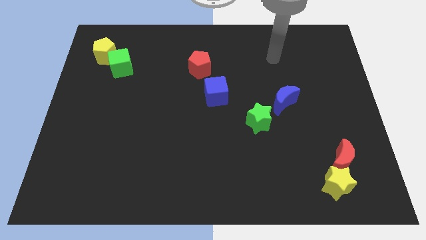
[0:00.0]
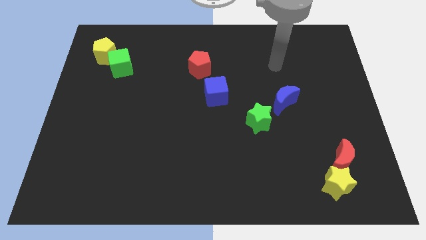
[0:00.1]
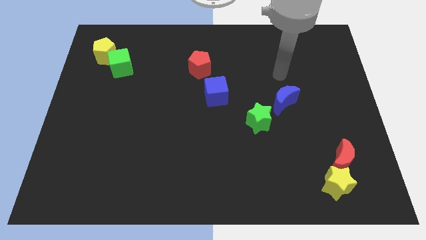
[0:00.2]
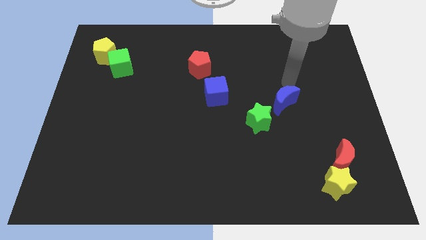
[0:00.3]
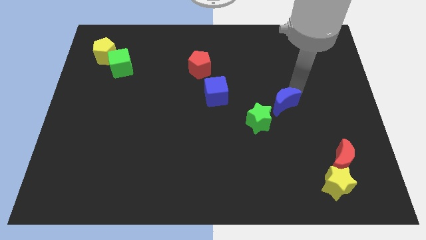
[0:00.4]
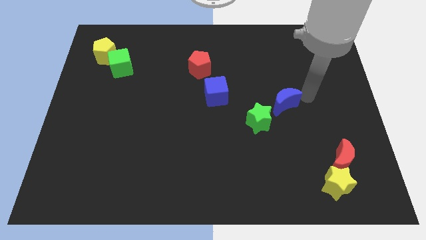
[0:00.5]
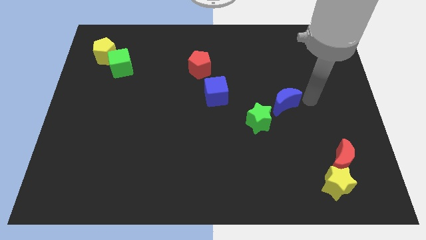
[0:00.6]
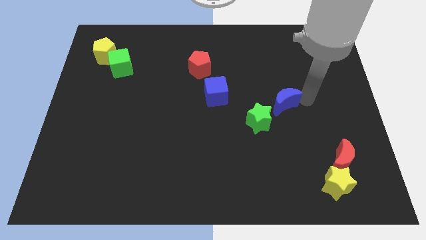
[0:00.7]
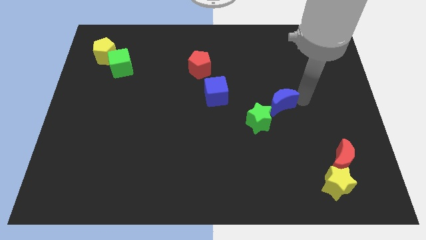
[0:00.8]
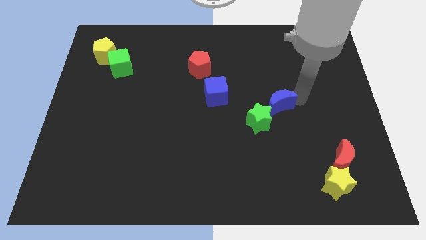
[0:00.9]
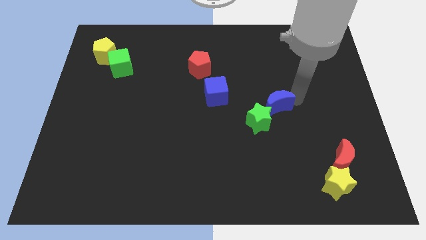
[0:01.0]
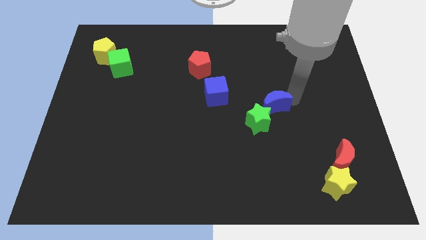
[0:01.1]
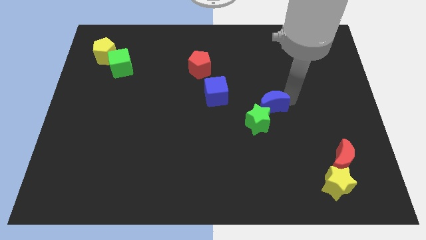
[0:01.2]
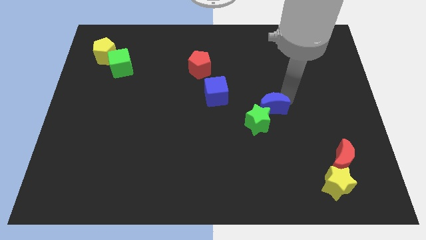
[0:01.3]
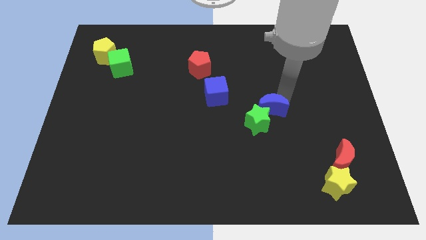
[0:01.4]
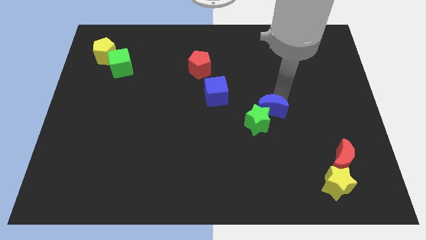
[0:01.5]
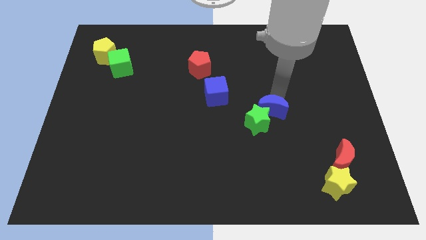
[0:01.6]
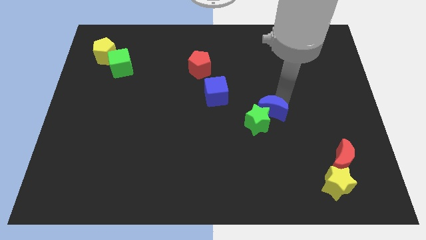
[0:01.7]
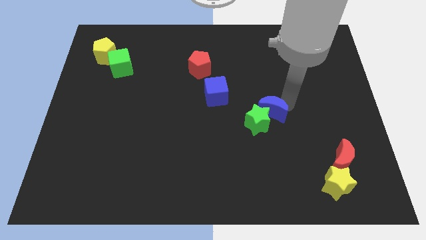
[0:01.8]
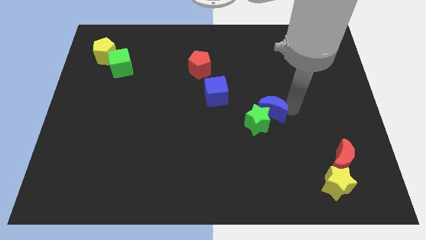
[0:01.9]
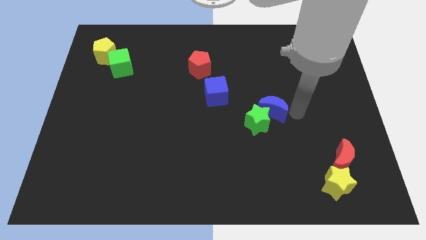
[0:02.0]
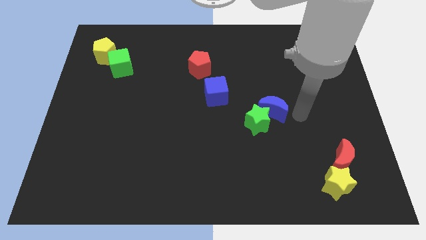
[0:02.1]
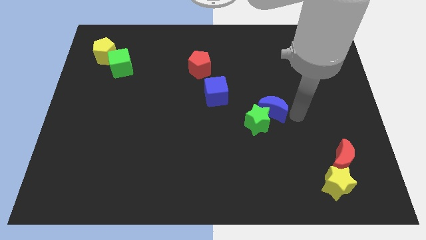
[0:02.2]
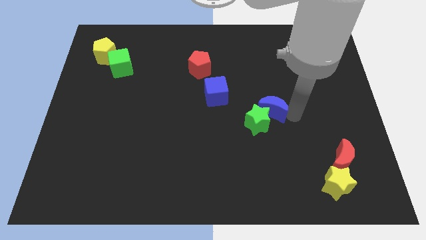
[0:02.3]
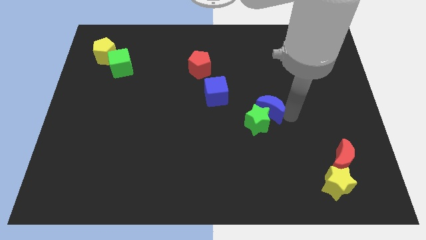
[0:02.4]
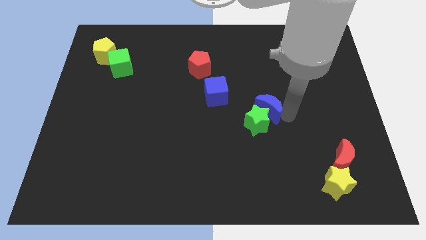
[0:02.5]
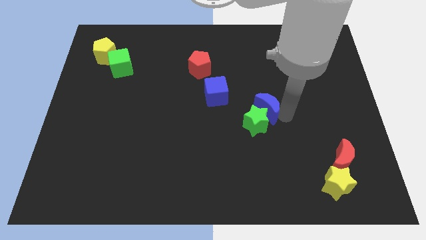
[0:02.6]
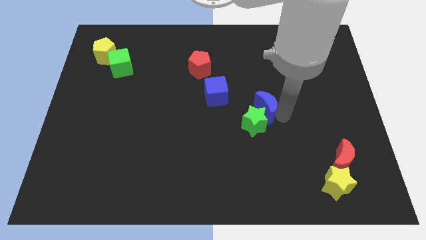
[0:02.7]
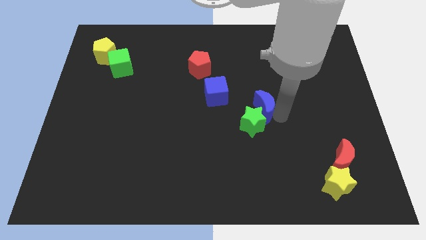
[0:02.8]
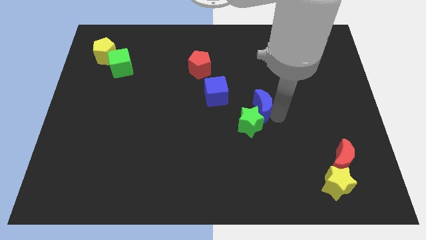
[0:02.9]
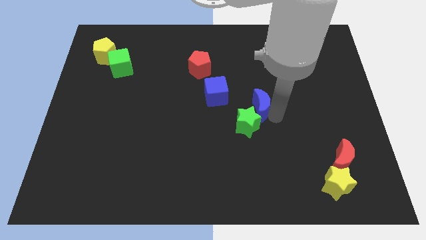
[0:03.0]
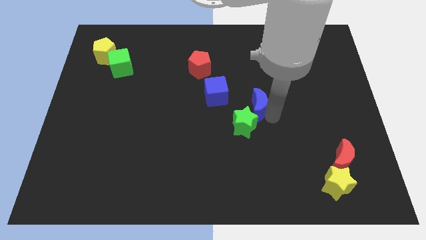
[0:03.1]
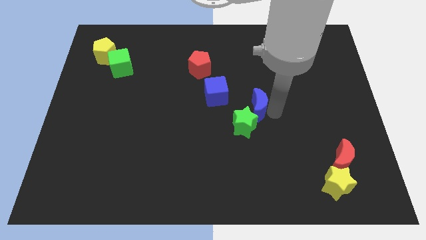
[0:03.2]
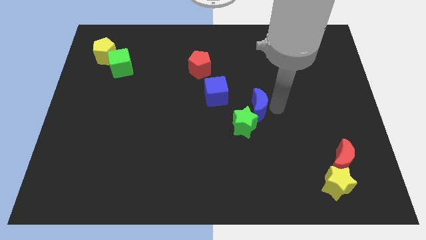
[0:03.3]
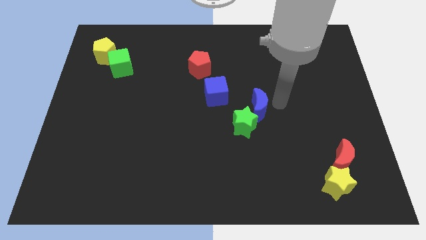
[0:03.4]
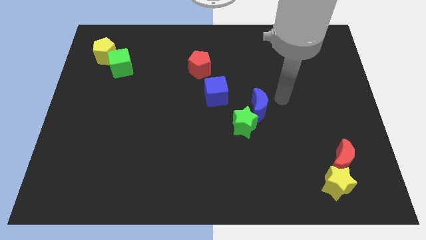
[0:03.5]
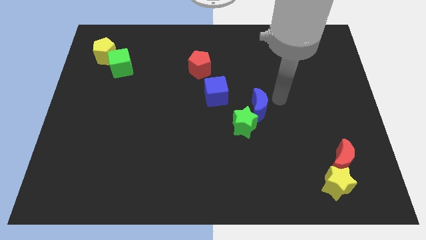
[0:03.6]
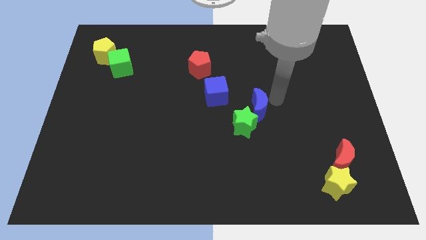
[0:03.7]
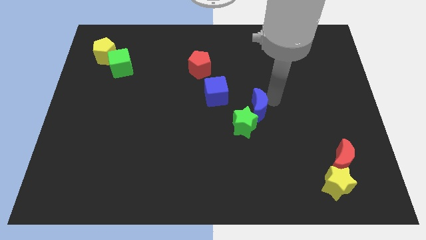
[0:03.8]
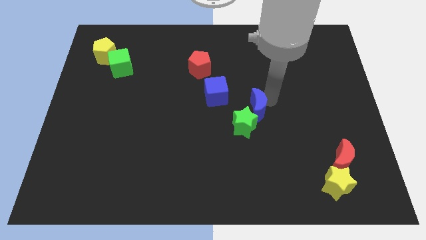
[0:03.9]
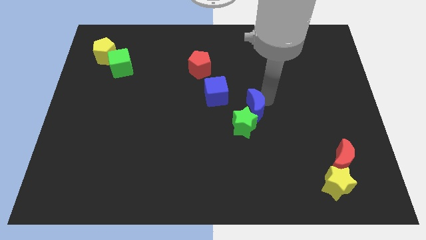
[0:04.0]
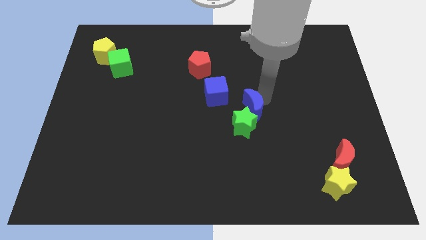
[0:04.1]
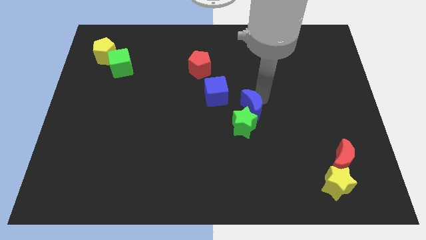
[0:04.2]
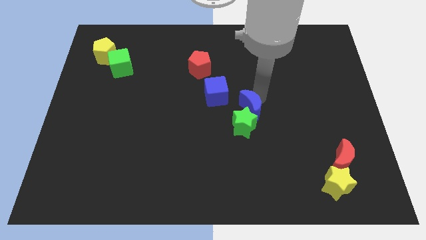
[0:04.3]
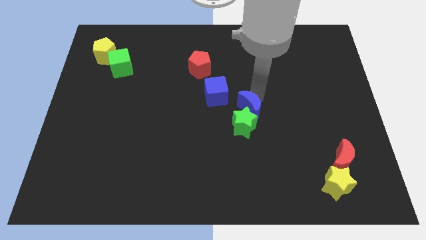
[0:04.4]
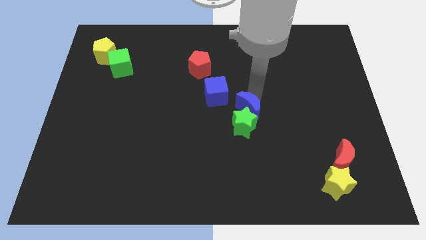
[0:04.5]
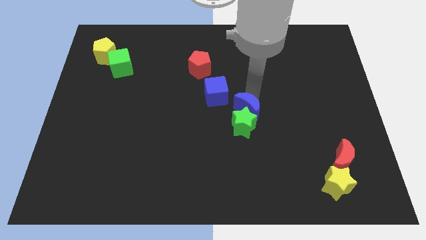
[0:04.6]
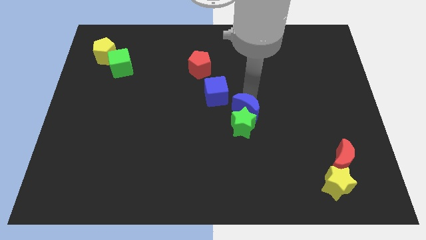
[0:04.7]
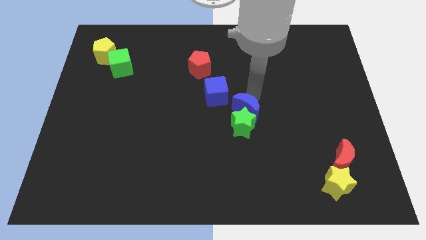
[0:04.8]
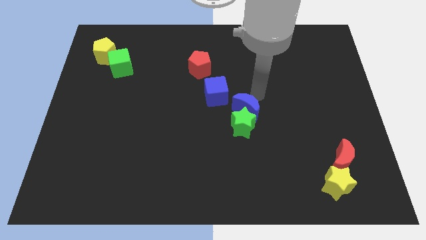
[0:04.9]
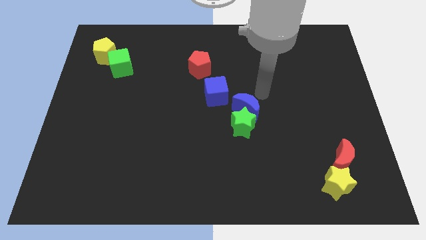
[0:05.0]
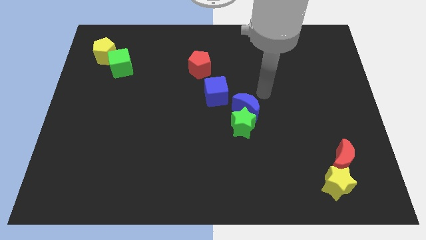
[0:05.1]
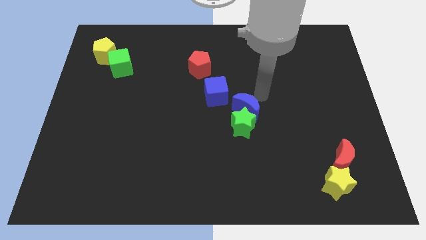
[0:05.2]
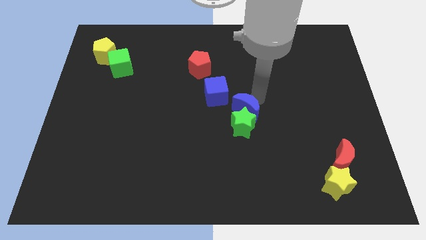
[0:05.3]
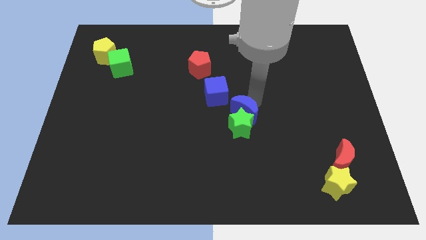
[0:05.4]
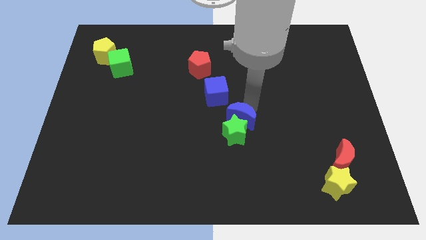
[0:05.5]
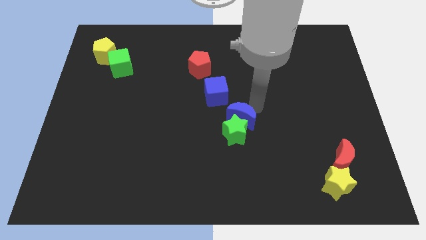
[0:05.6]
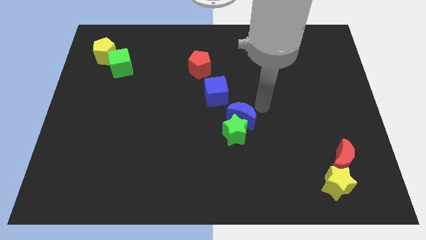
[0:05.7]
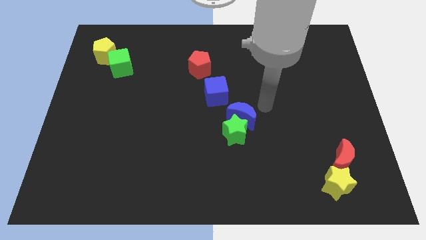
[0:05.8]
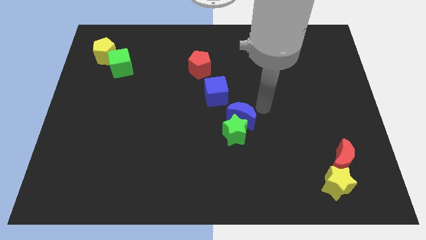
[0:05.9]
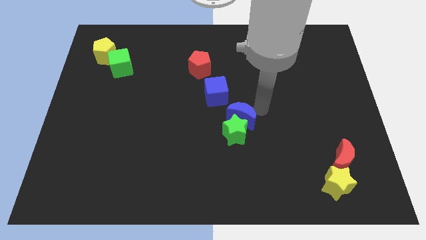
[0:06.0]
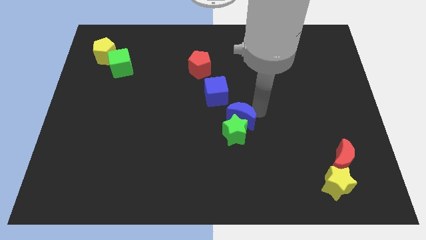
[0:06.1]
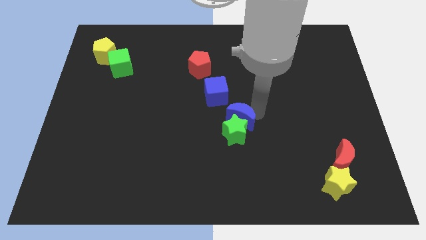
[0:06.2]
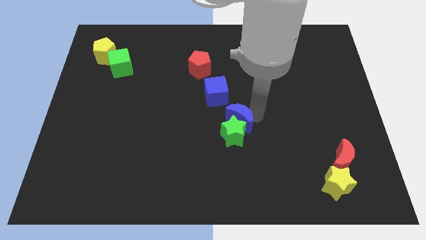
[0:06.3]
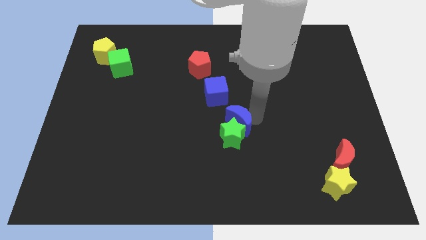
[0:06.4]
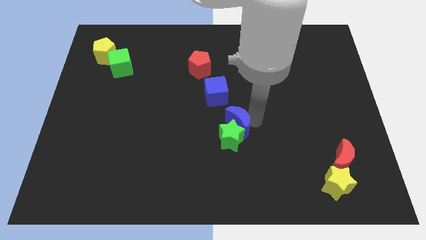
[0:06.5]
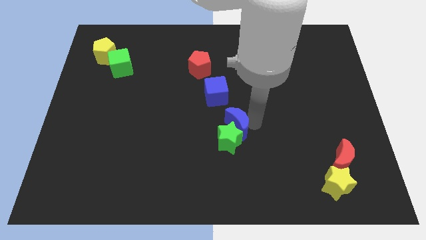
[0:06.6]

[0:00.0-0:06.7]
put the blue moon below the blue cube
